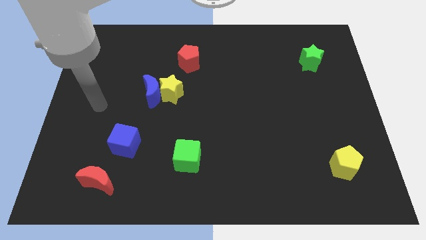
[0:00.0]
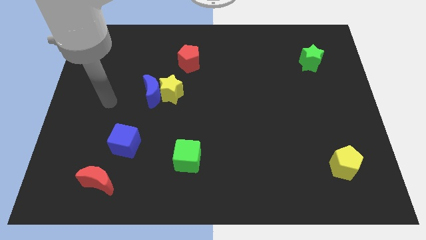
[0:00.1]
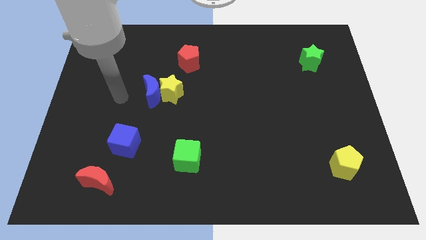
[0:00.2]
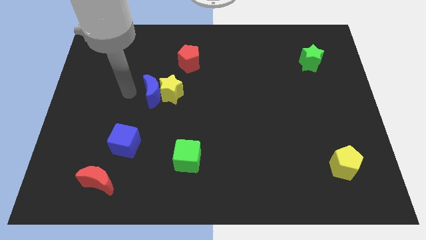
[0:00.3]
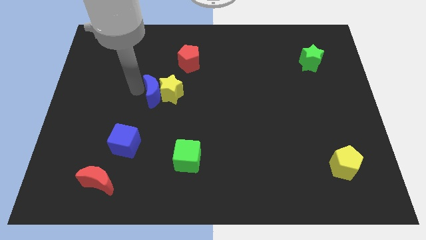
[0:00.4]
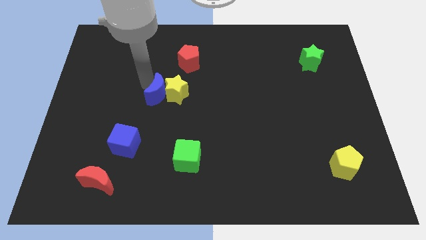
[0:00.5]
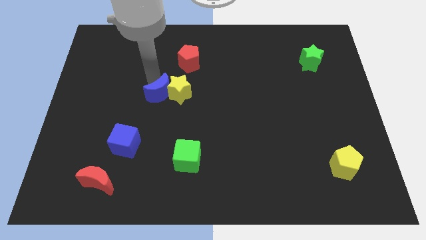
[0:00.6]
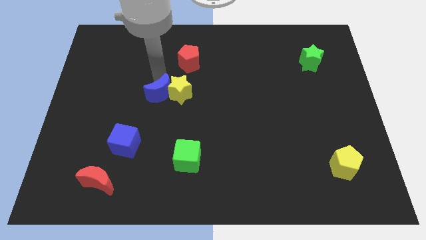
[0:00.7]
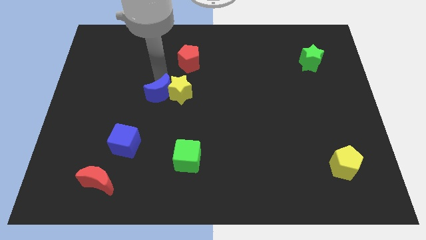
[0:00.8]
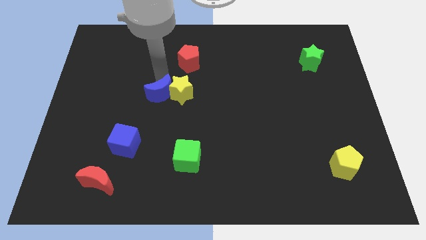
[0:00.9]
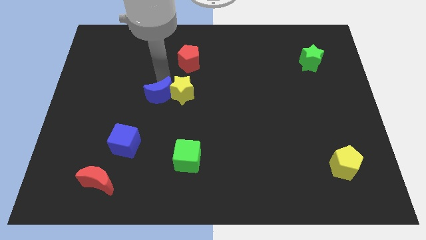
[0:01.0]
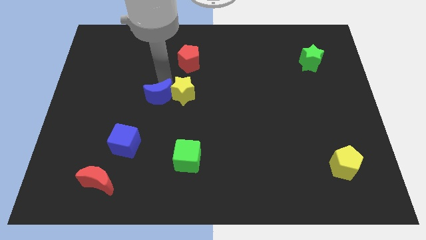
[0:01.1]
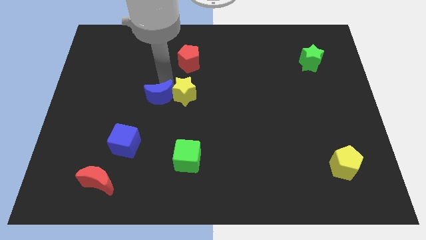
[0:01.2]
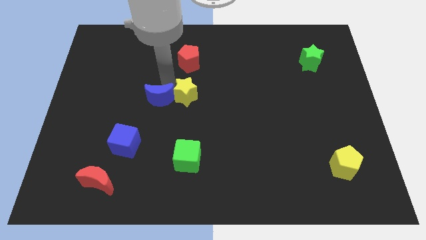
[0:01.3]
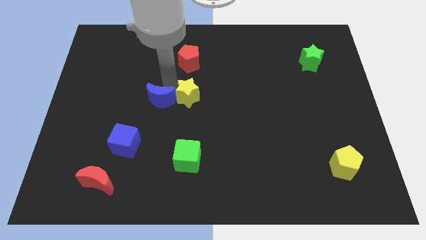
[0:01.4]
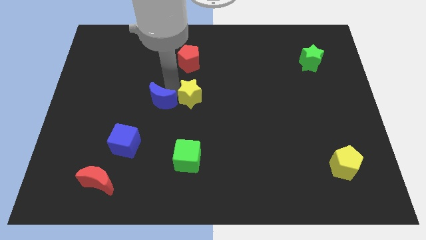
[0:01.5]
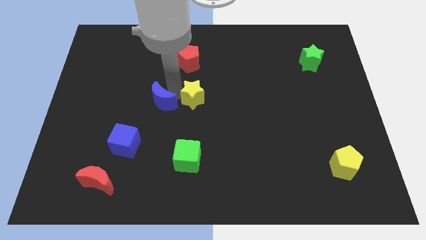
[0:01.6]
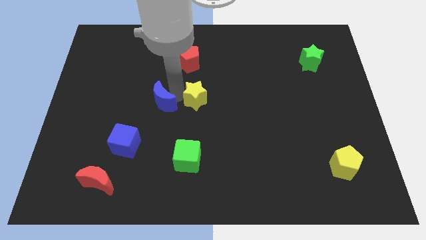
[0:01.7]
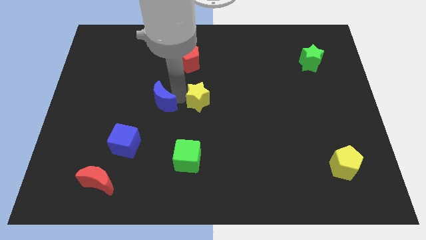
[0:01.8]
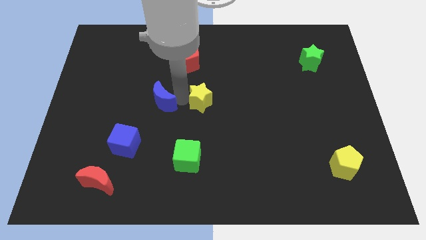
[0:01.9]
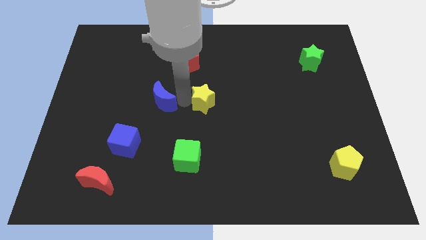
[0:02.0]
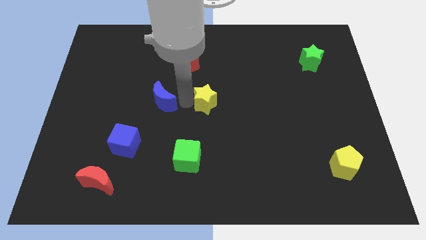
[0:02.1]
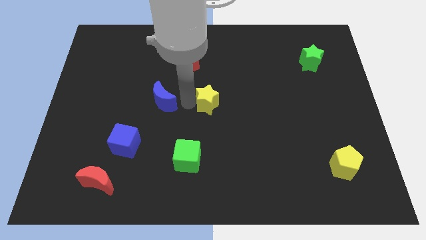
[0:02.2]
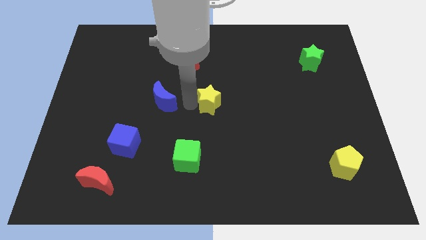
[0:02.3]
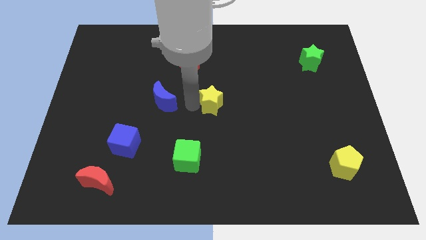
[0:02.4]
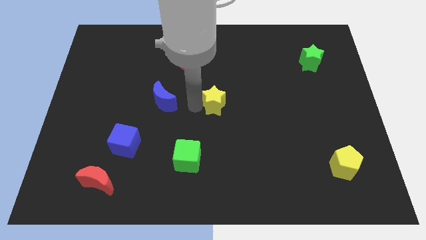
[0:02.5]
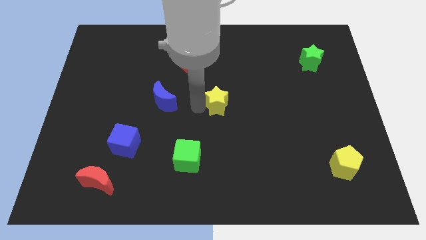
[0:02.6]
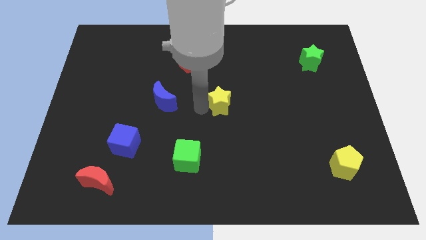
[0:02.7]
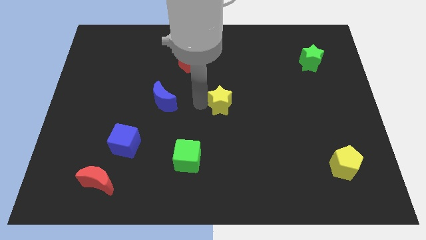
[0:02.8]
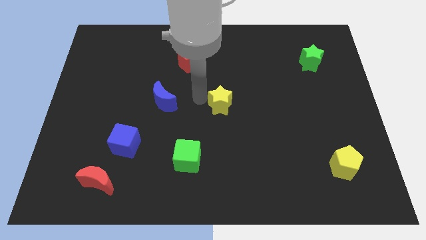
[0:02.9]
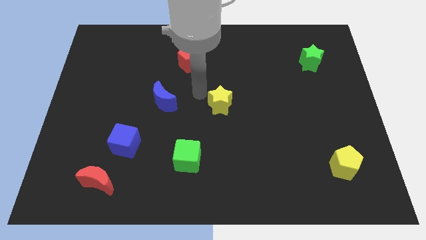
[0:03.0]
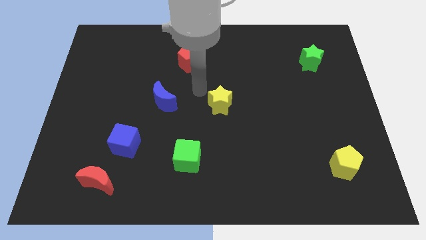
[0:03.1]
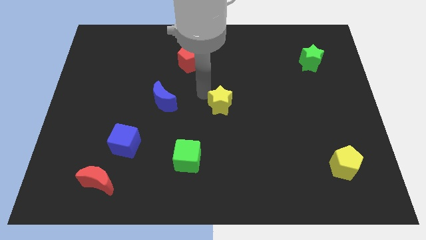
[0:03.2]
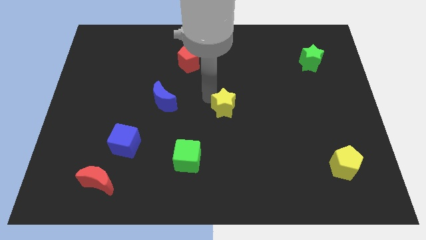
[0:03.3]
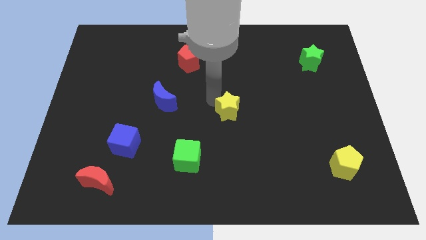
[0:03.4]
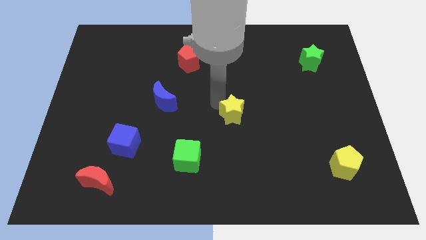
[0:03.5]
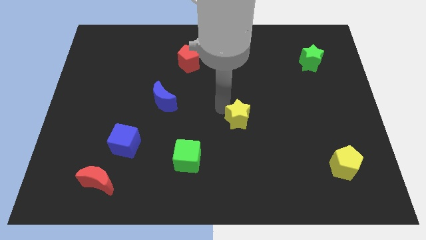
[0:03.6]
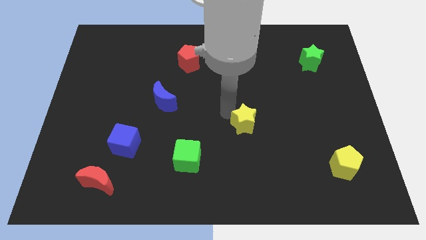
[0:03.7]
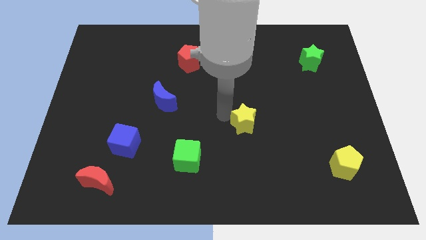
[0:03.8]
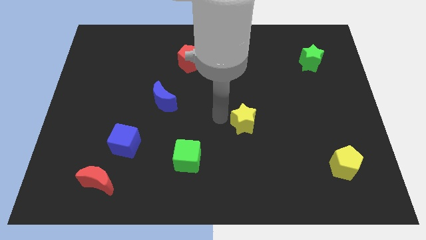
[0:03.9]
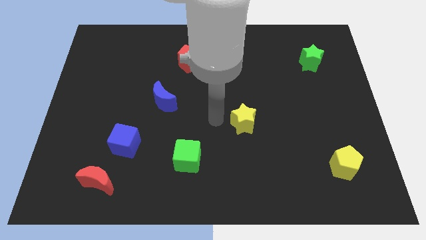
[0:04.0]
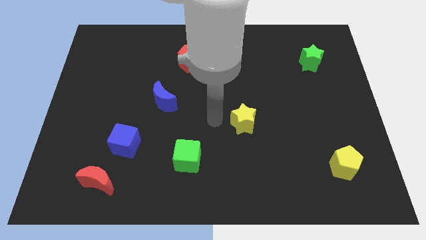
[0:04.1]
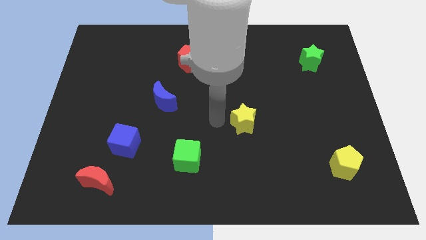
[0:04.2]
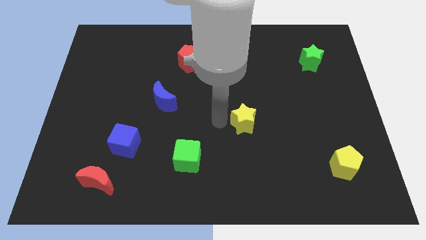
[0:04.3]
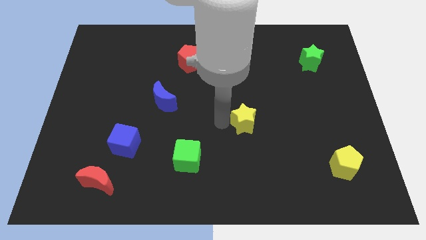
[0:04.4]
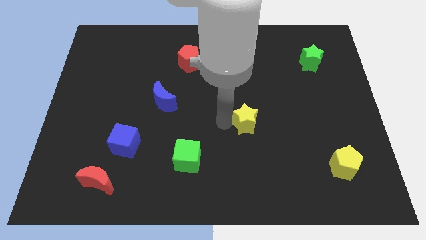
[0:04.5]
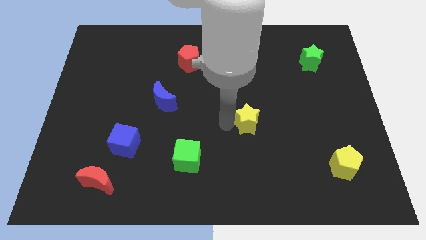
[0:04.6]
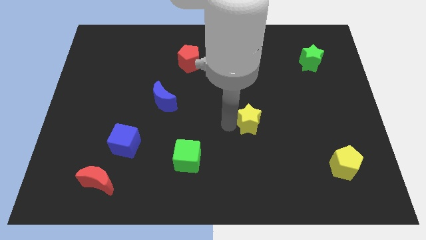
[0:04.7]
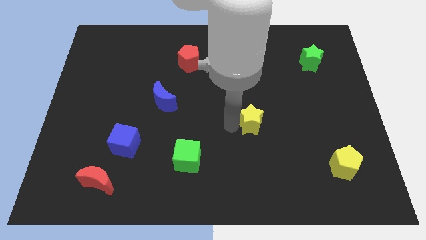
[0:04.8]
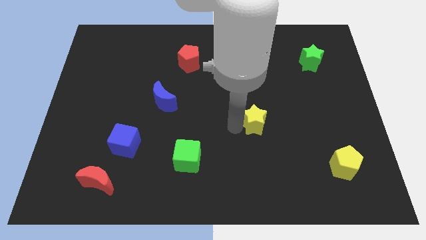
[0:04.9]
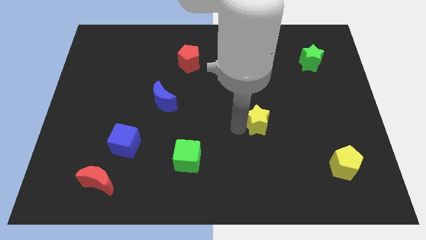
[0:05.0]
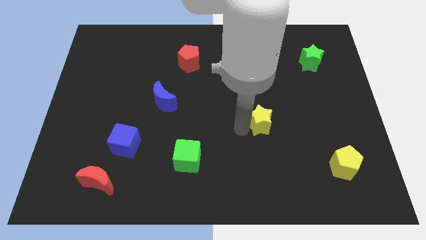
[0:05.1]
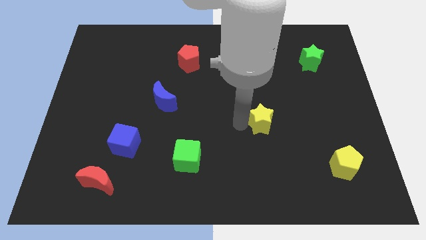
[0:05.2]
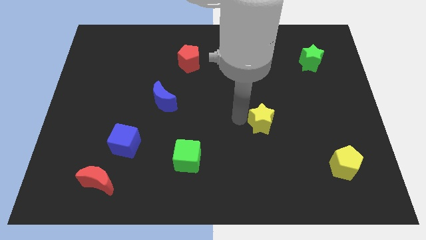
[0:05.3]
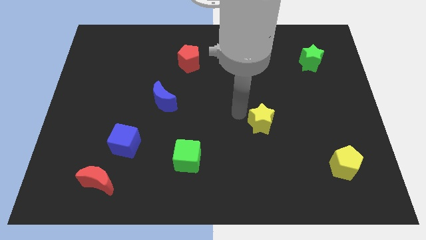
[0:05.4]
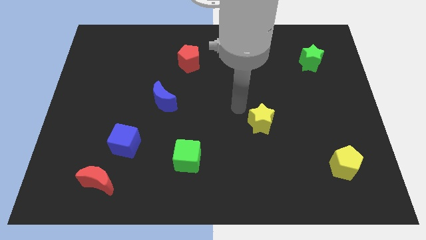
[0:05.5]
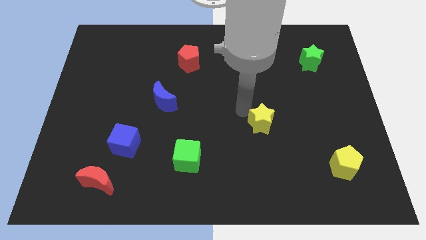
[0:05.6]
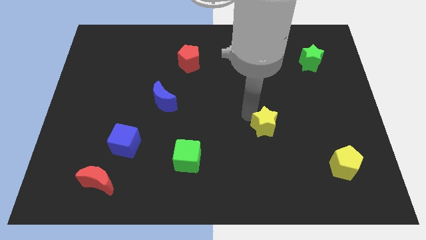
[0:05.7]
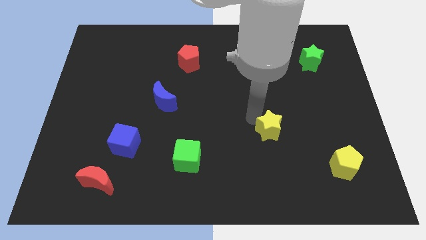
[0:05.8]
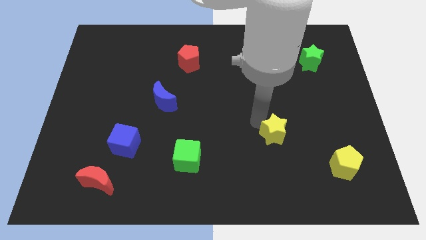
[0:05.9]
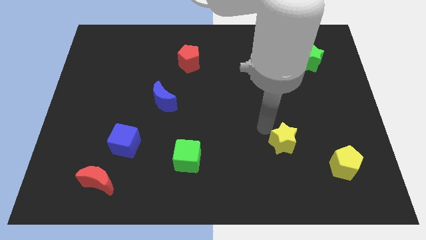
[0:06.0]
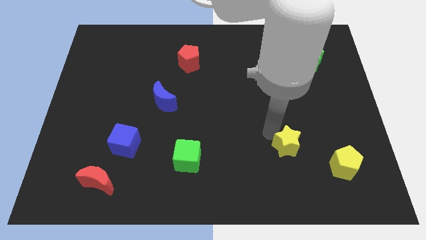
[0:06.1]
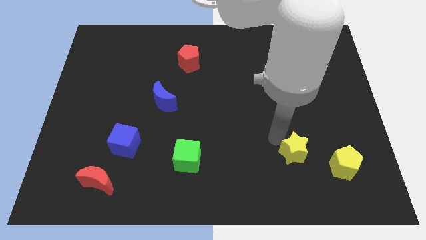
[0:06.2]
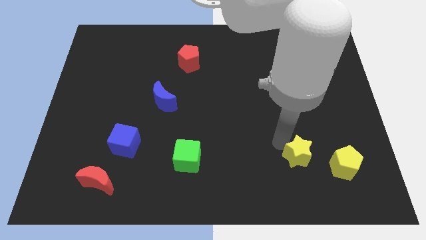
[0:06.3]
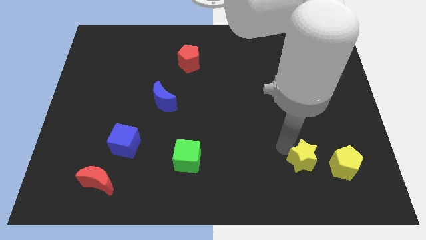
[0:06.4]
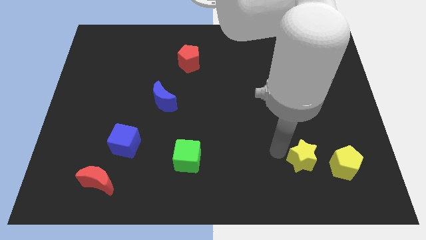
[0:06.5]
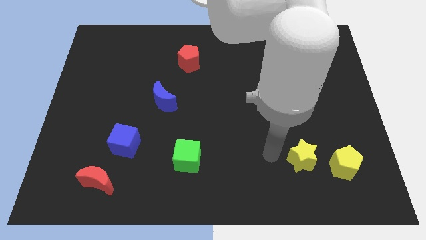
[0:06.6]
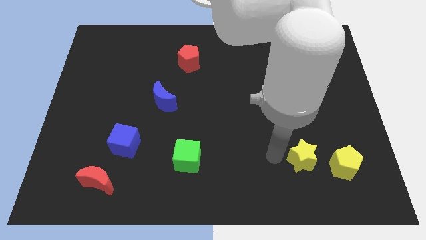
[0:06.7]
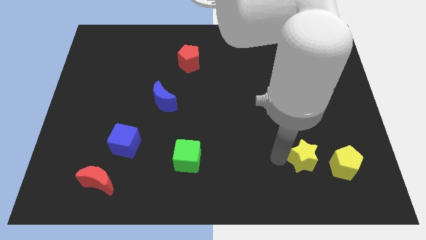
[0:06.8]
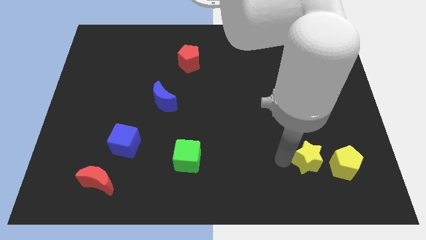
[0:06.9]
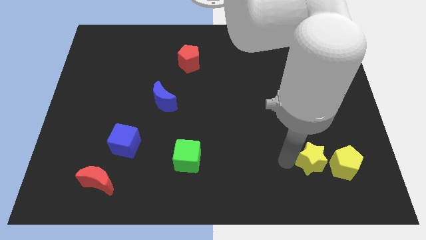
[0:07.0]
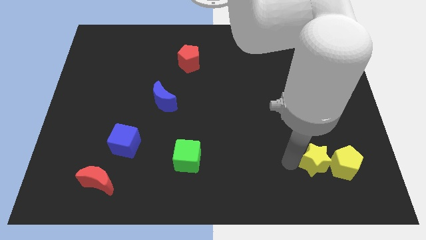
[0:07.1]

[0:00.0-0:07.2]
push the yellow star to the yellow pentagon
